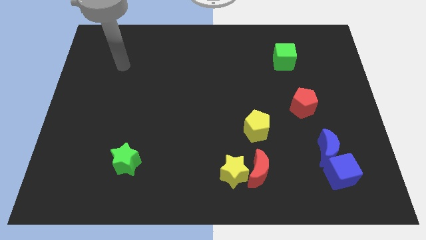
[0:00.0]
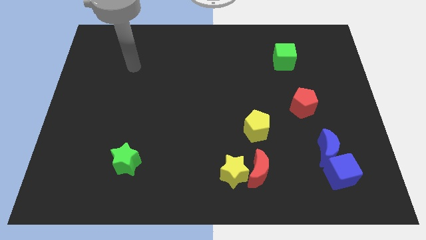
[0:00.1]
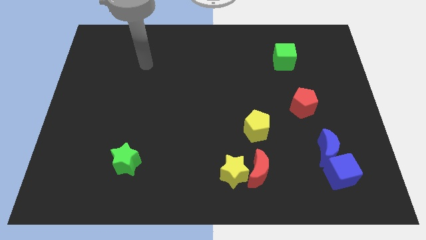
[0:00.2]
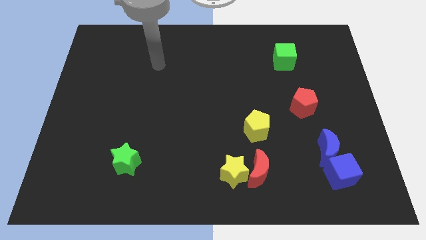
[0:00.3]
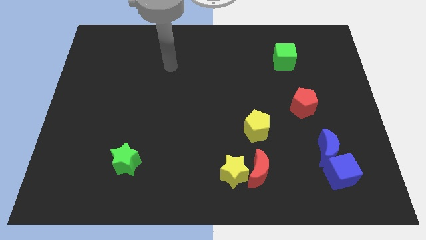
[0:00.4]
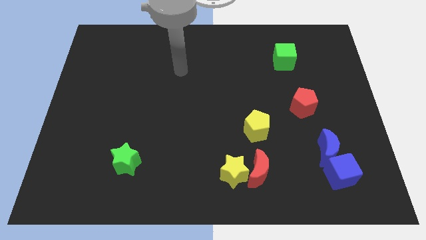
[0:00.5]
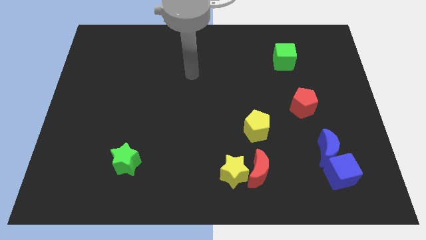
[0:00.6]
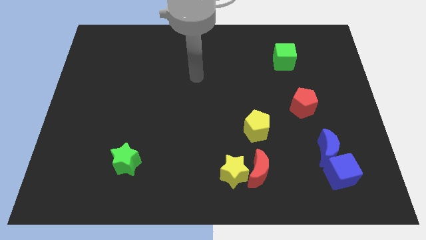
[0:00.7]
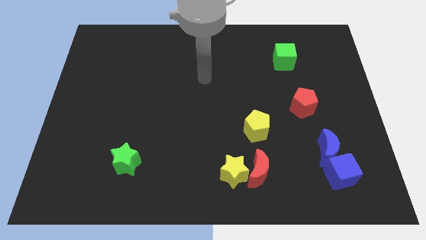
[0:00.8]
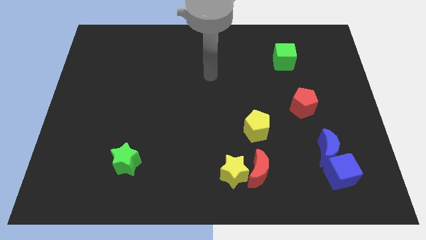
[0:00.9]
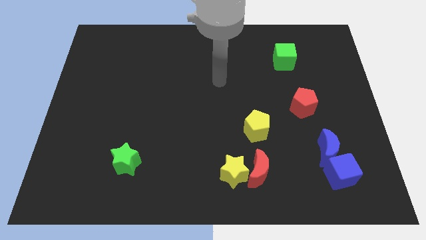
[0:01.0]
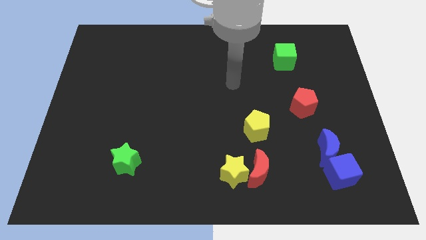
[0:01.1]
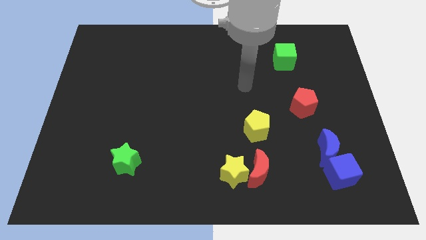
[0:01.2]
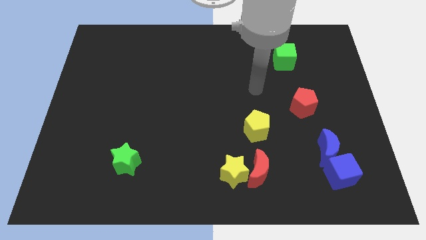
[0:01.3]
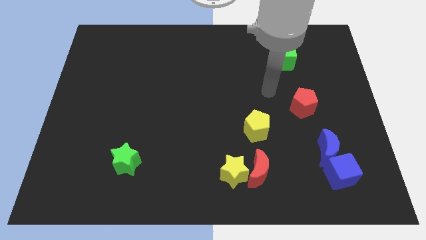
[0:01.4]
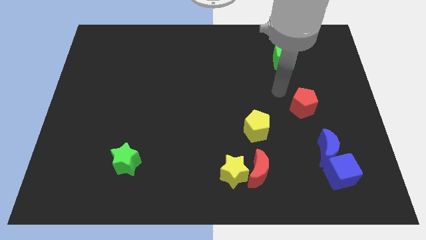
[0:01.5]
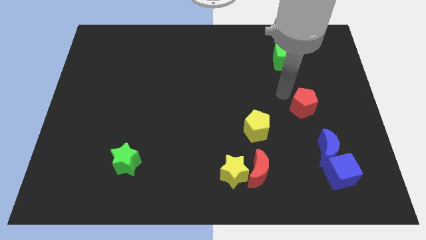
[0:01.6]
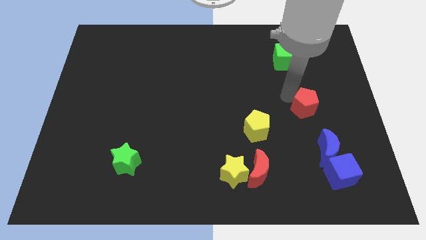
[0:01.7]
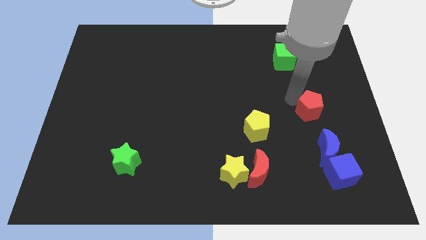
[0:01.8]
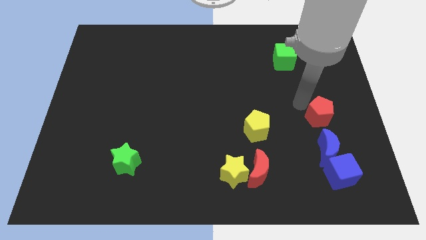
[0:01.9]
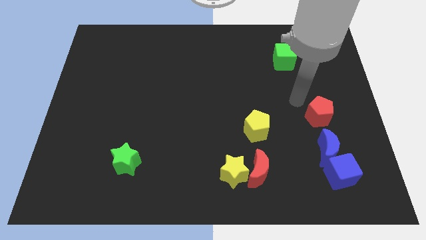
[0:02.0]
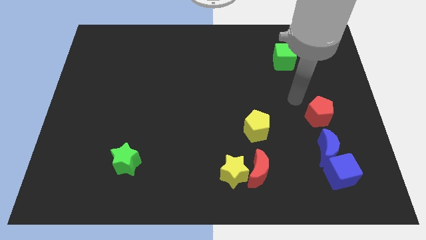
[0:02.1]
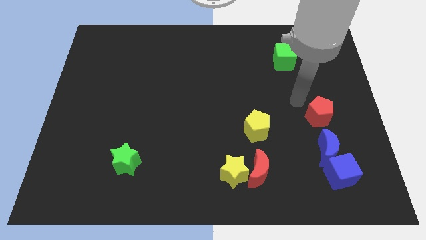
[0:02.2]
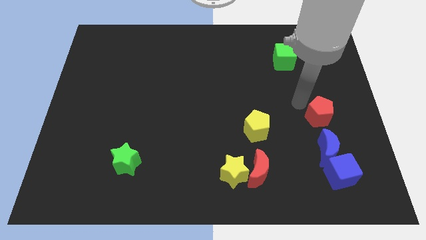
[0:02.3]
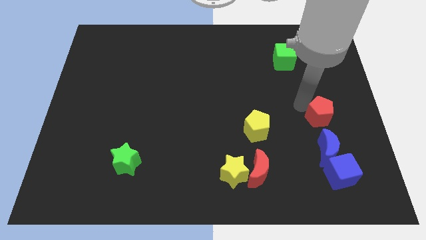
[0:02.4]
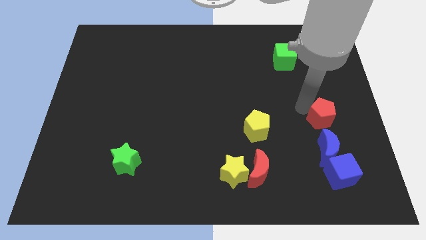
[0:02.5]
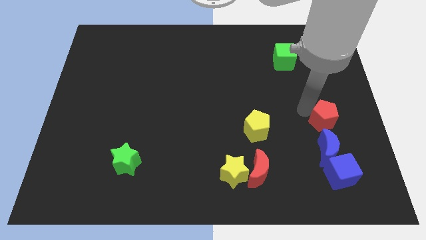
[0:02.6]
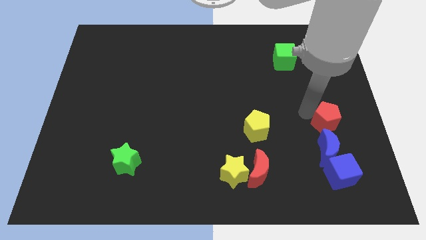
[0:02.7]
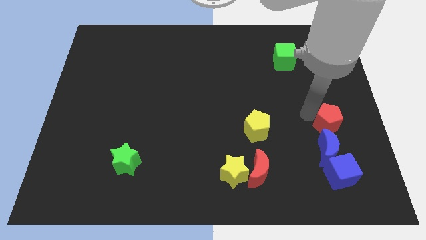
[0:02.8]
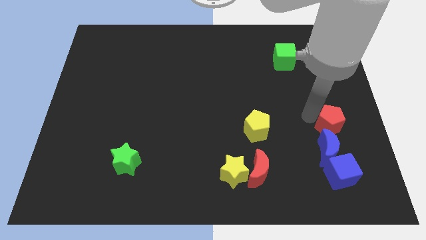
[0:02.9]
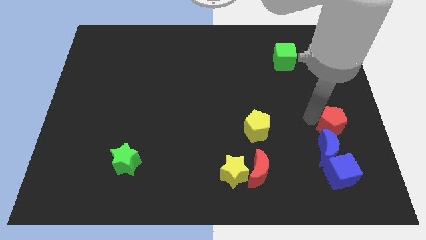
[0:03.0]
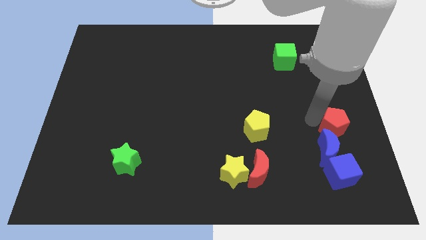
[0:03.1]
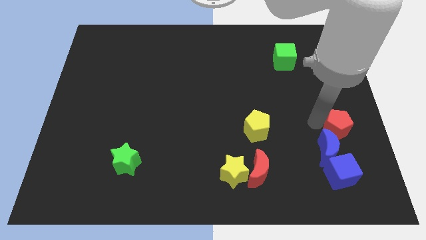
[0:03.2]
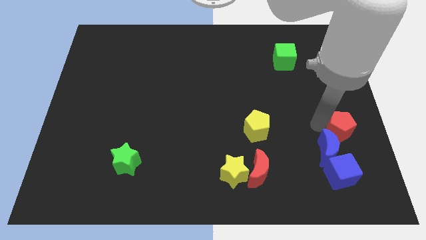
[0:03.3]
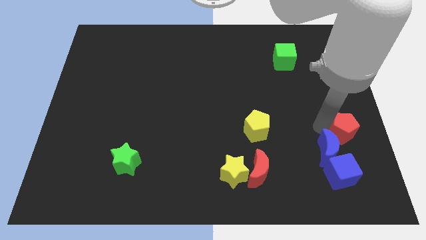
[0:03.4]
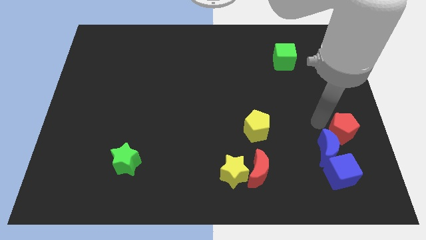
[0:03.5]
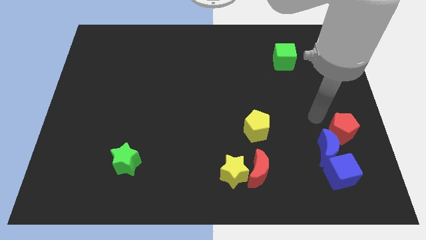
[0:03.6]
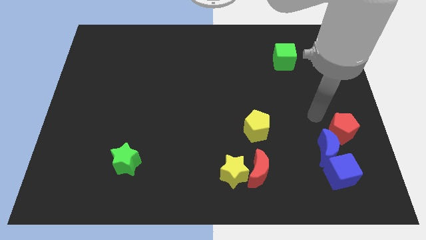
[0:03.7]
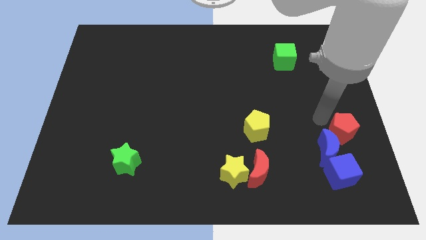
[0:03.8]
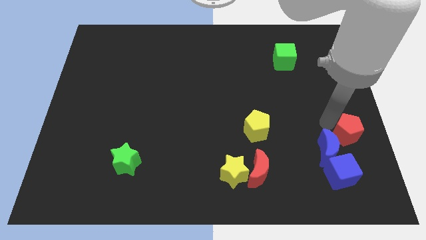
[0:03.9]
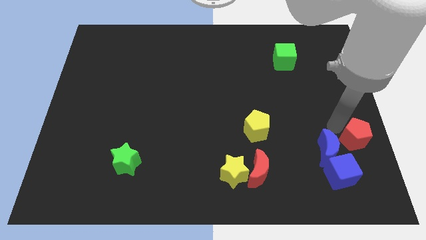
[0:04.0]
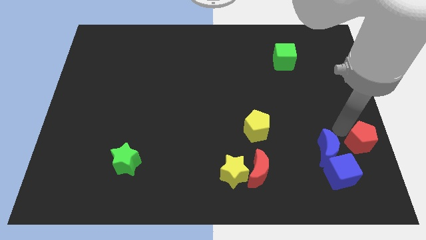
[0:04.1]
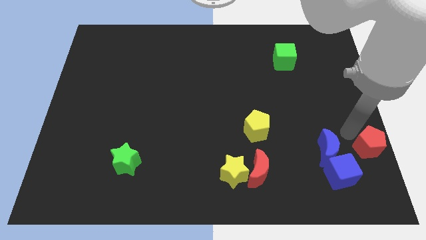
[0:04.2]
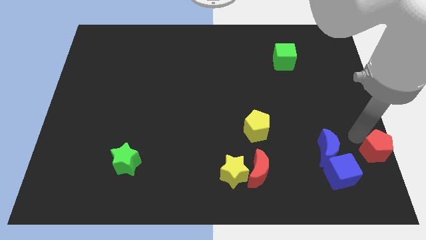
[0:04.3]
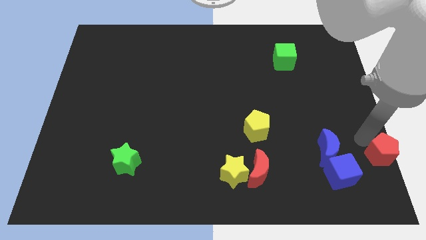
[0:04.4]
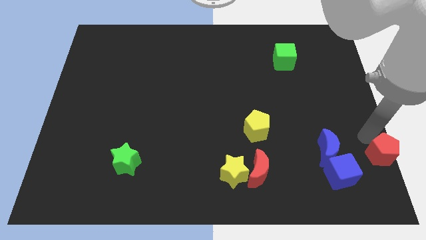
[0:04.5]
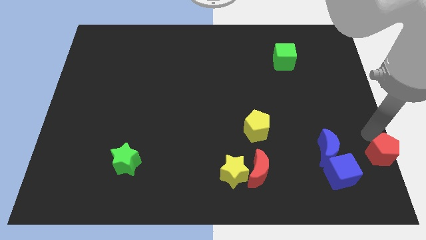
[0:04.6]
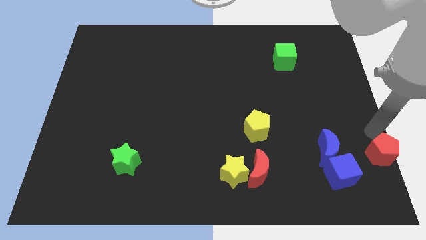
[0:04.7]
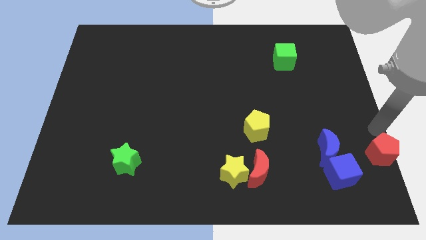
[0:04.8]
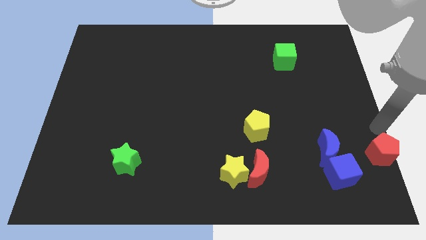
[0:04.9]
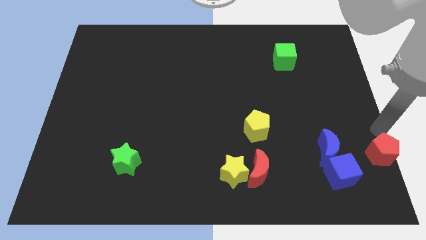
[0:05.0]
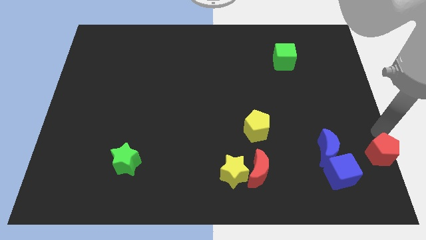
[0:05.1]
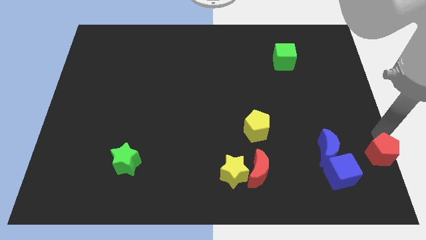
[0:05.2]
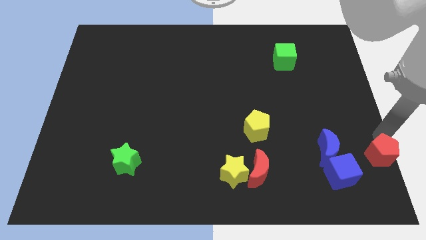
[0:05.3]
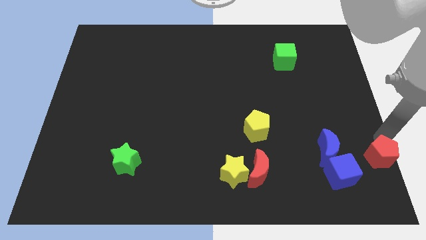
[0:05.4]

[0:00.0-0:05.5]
slide the red pentagon to the bottom right of the board
